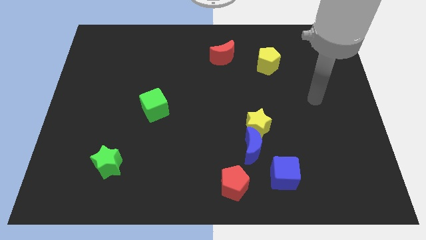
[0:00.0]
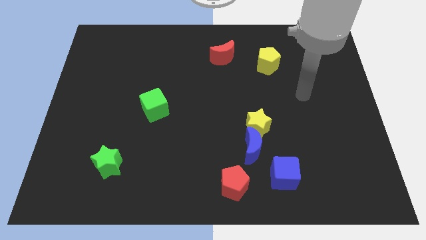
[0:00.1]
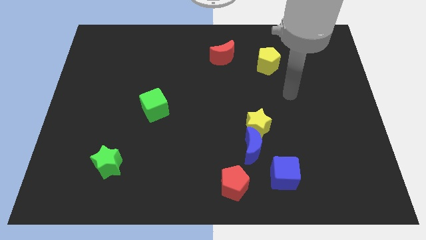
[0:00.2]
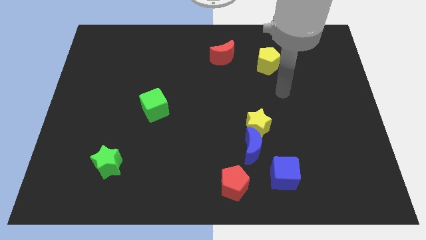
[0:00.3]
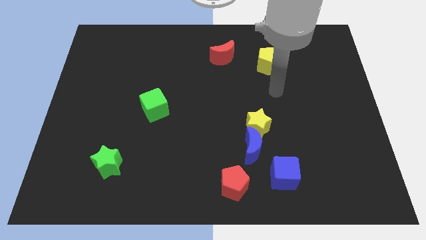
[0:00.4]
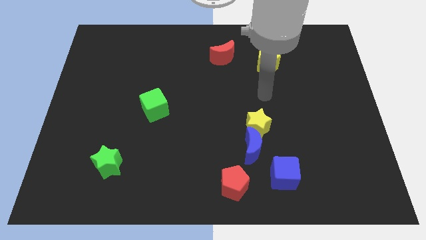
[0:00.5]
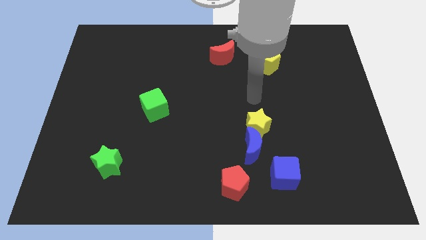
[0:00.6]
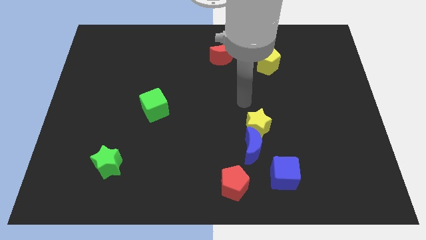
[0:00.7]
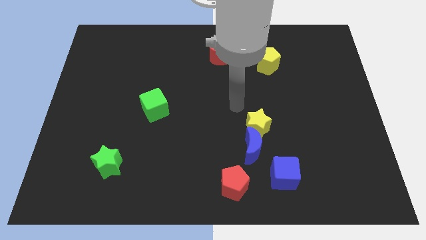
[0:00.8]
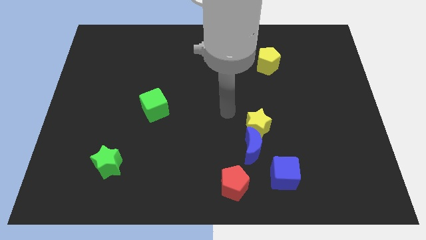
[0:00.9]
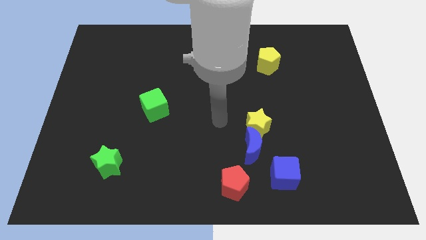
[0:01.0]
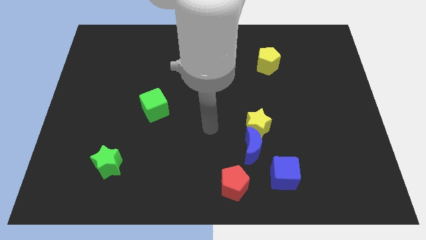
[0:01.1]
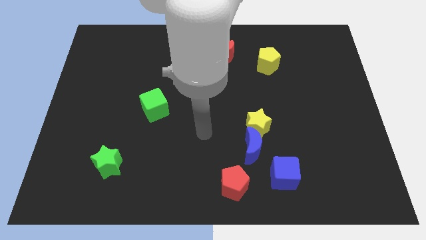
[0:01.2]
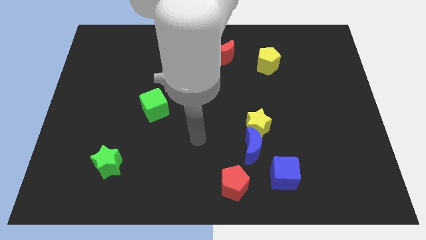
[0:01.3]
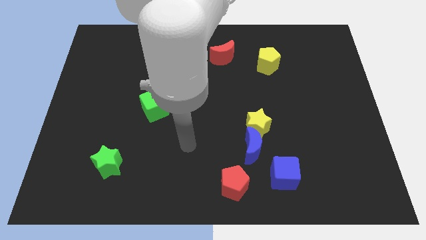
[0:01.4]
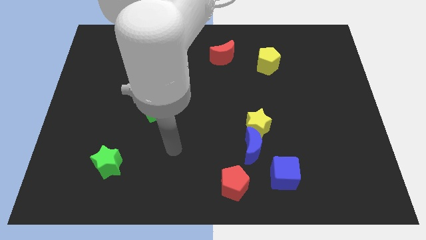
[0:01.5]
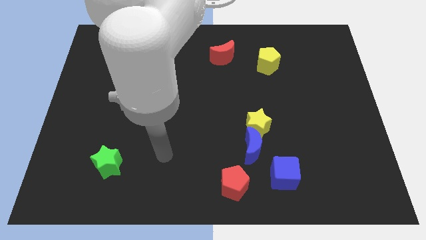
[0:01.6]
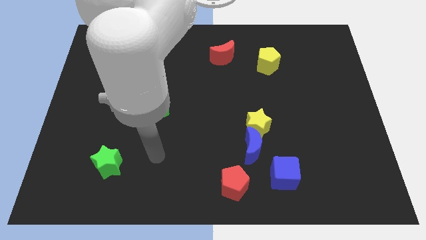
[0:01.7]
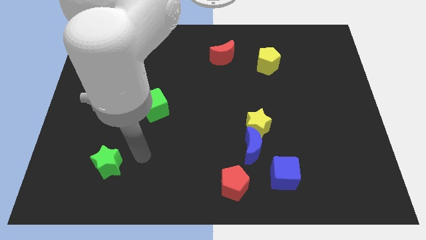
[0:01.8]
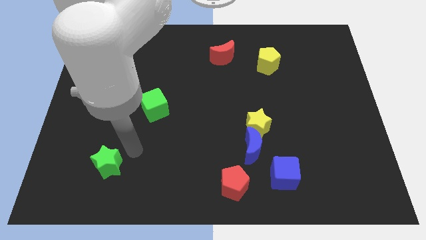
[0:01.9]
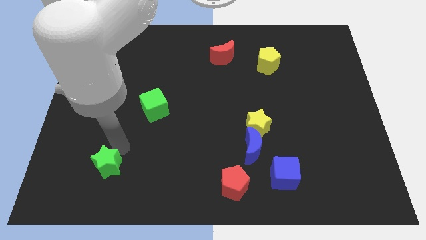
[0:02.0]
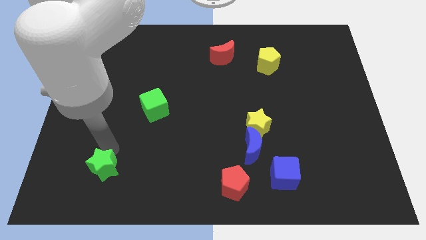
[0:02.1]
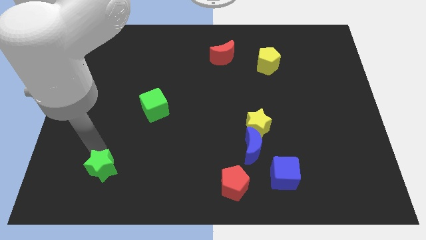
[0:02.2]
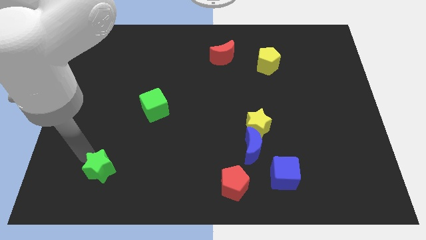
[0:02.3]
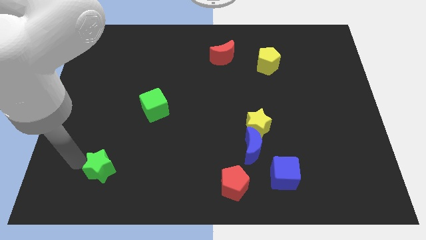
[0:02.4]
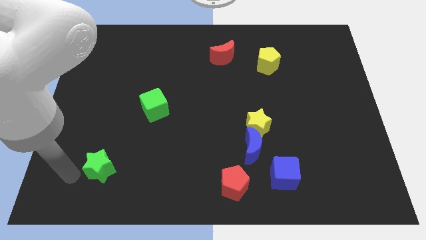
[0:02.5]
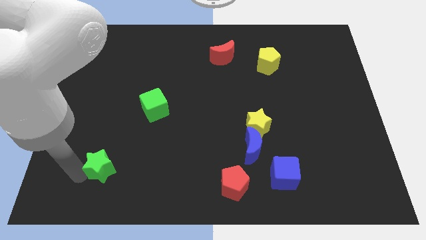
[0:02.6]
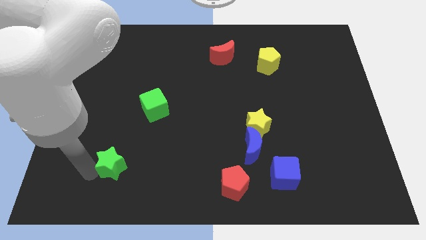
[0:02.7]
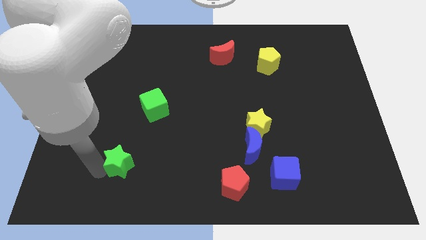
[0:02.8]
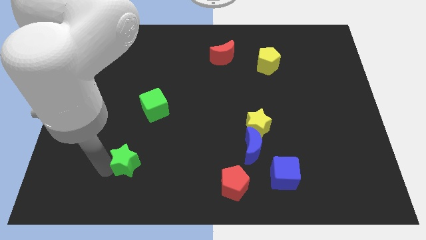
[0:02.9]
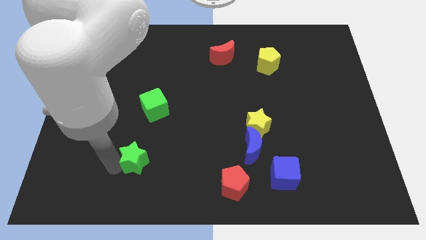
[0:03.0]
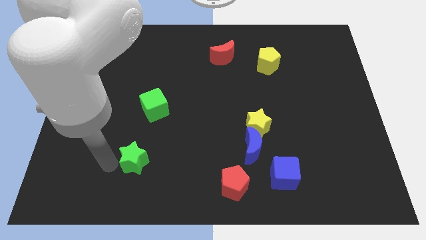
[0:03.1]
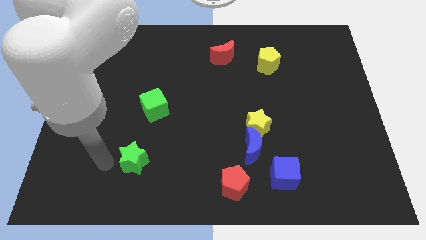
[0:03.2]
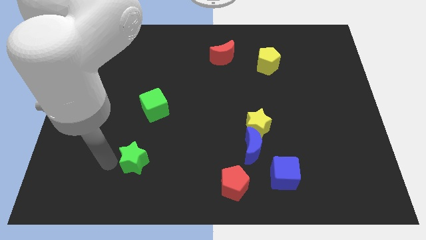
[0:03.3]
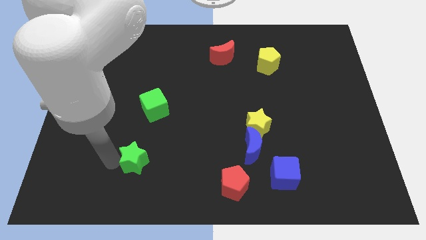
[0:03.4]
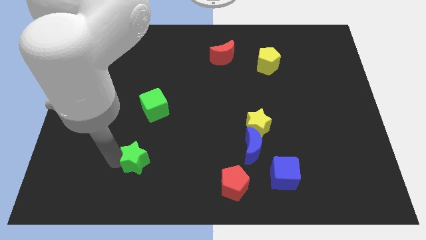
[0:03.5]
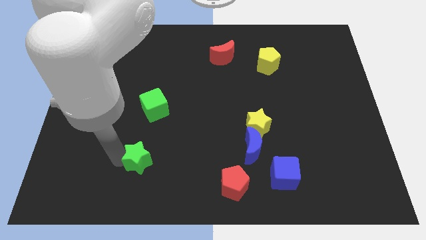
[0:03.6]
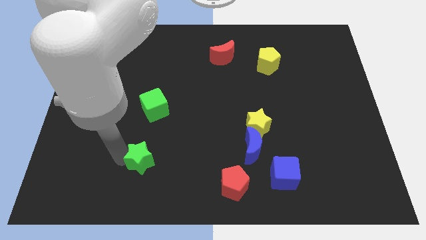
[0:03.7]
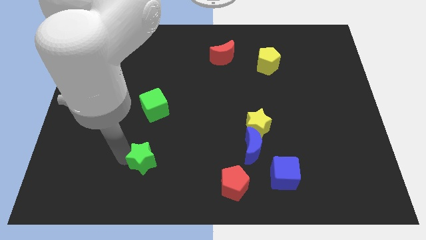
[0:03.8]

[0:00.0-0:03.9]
push the green star right a little bit

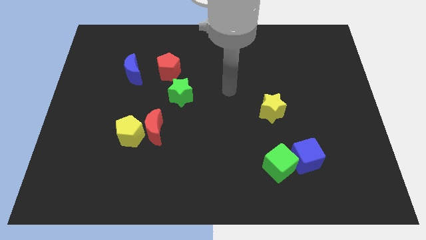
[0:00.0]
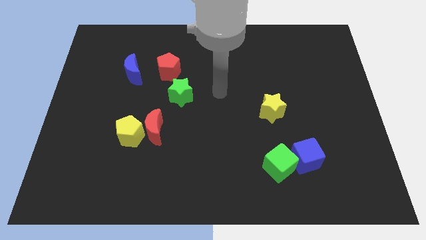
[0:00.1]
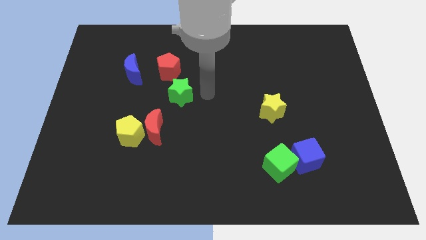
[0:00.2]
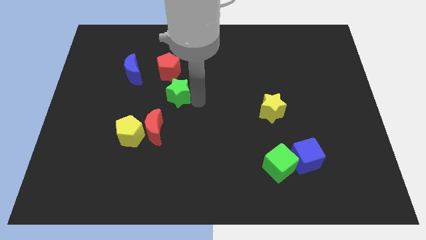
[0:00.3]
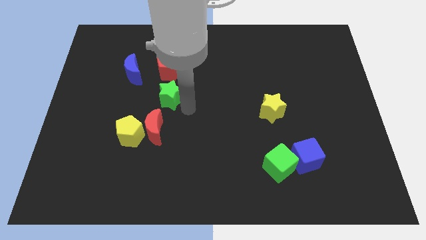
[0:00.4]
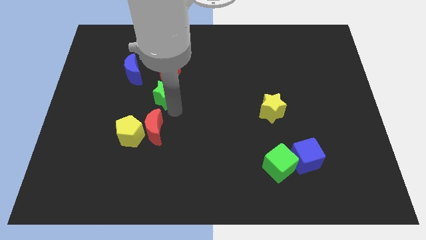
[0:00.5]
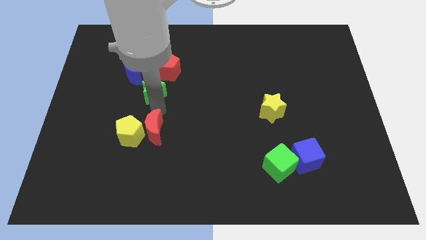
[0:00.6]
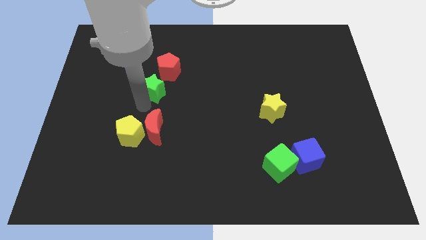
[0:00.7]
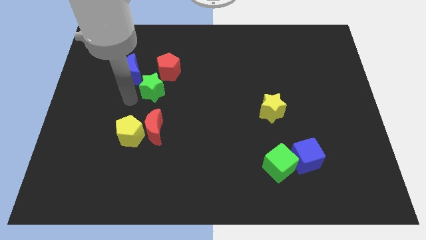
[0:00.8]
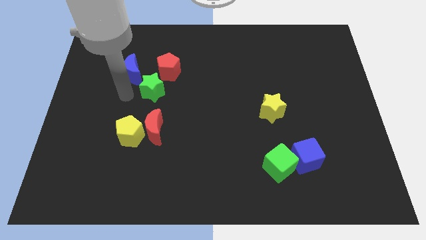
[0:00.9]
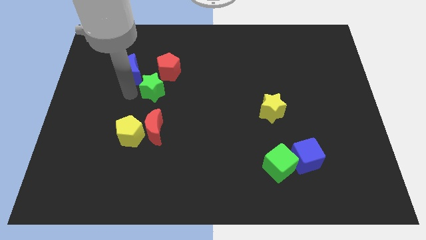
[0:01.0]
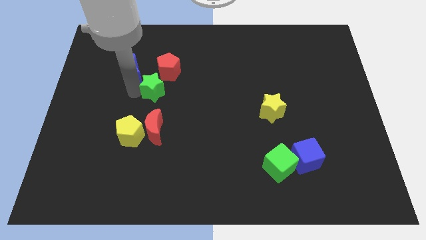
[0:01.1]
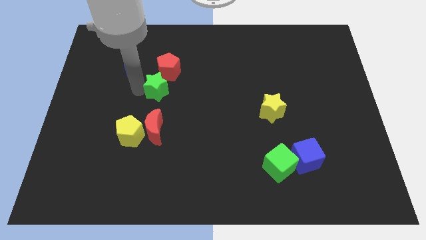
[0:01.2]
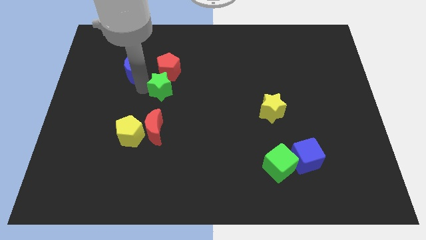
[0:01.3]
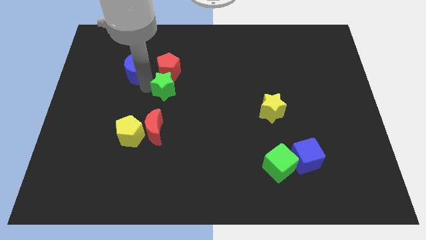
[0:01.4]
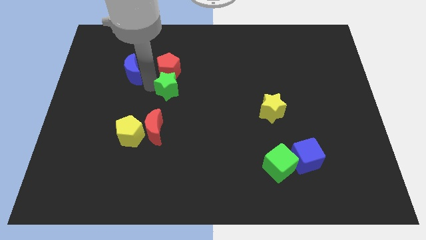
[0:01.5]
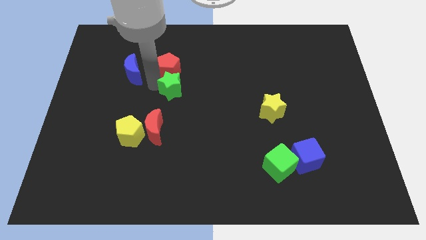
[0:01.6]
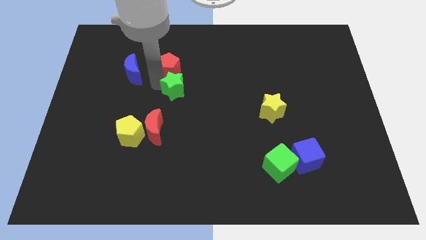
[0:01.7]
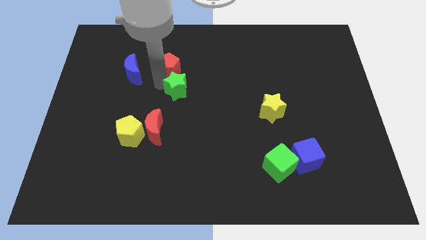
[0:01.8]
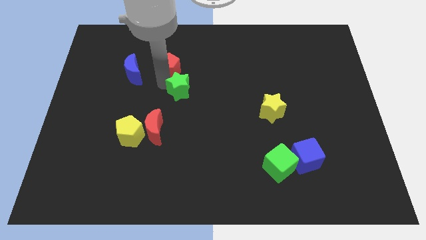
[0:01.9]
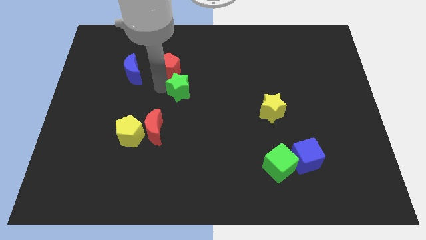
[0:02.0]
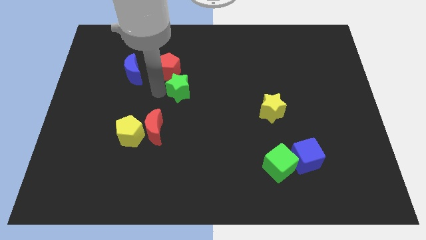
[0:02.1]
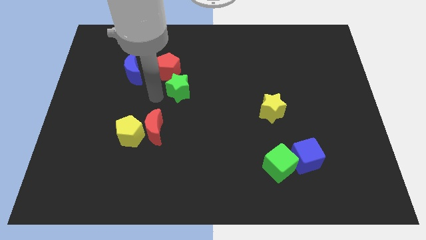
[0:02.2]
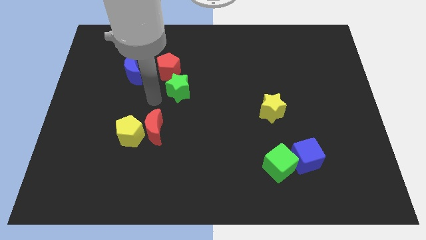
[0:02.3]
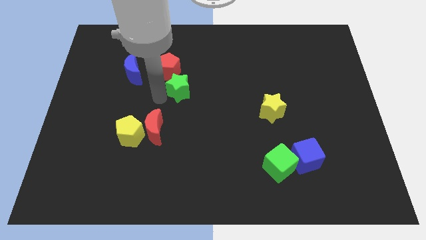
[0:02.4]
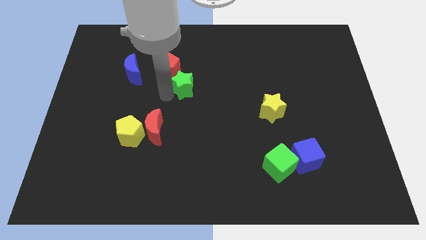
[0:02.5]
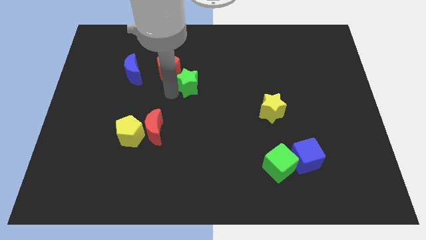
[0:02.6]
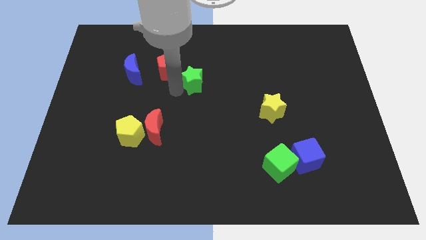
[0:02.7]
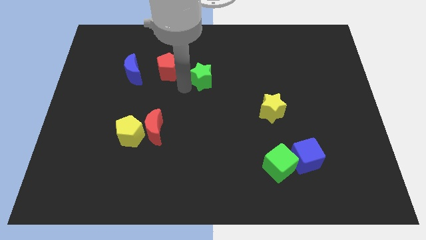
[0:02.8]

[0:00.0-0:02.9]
slightly slide the green star diagonally upwards and right

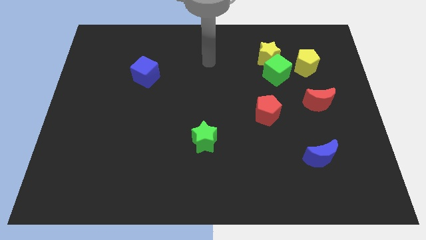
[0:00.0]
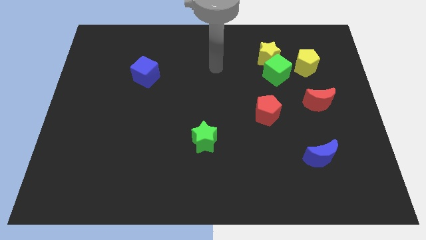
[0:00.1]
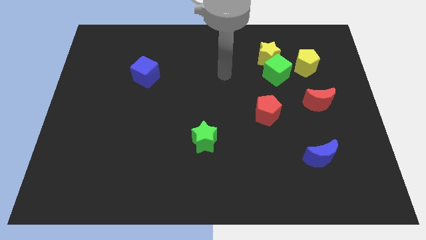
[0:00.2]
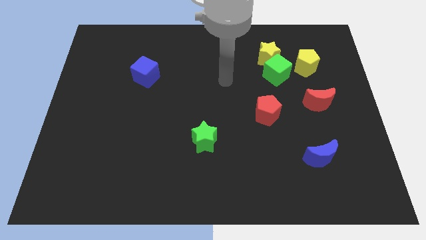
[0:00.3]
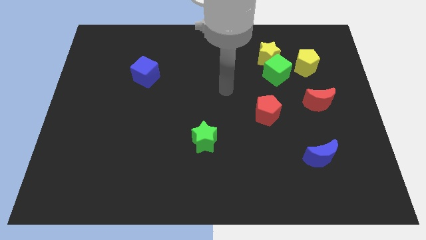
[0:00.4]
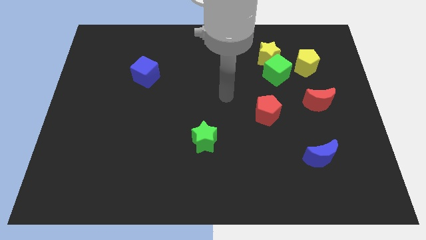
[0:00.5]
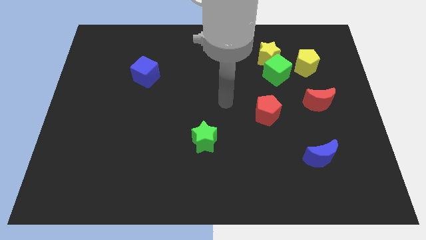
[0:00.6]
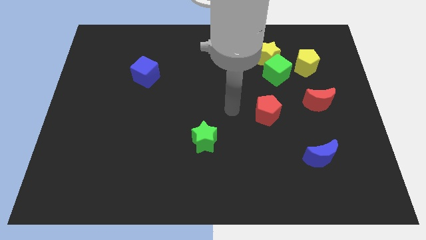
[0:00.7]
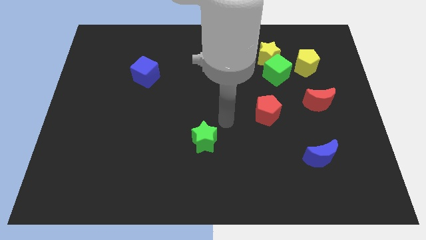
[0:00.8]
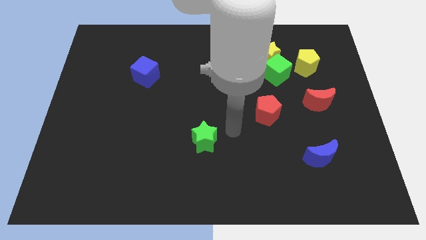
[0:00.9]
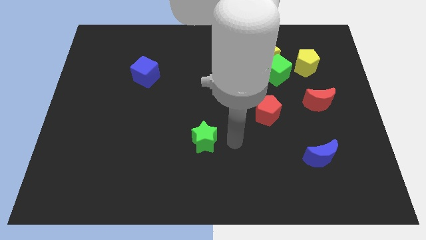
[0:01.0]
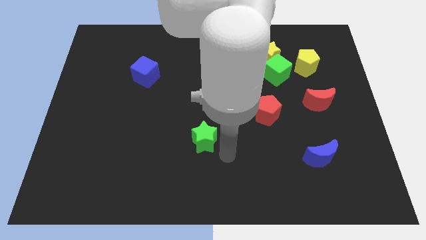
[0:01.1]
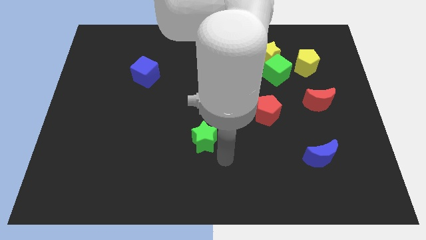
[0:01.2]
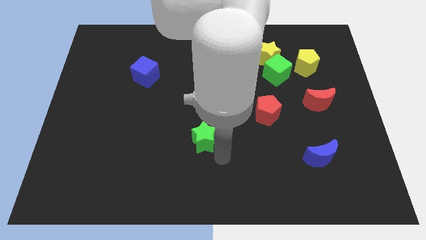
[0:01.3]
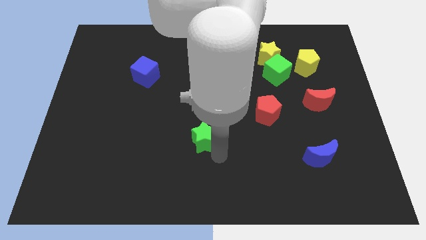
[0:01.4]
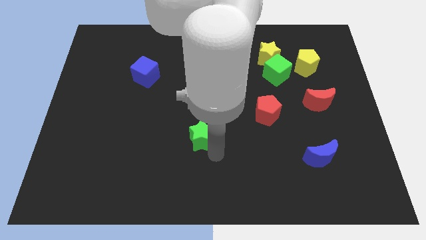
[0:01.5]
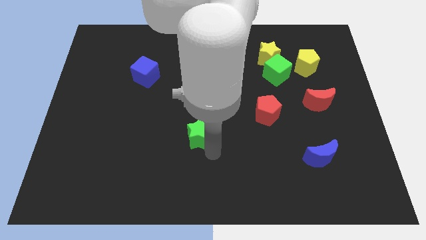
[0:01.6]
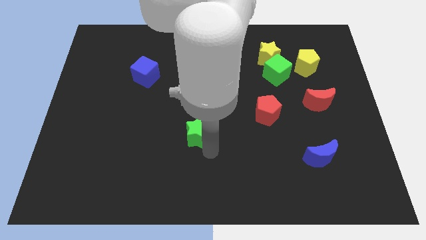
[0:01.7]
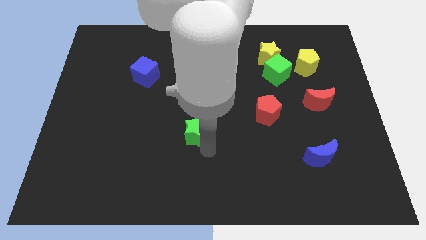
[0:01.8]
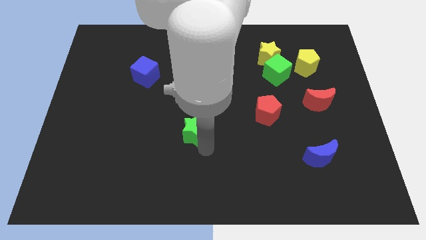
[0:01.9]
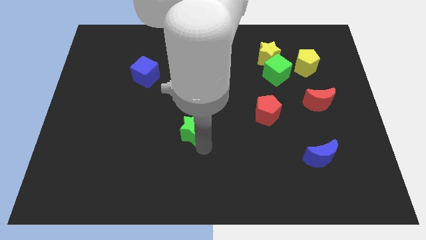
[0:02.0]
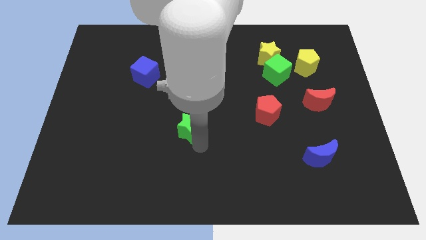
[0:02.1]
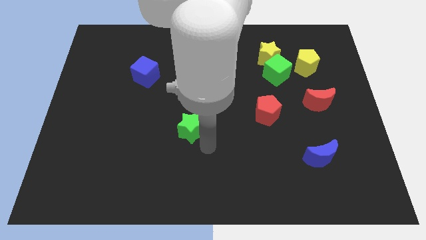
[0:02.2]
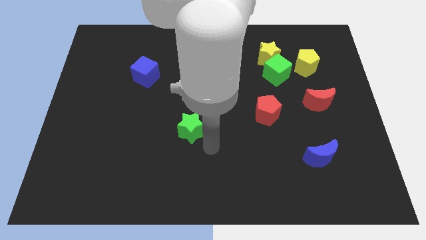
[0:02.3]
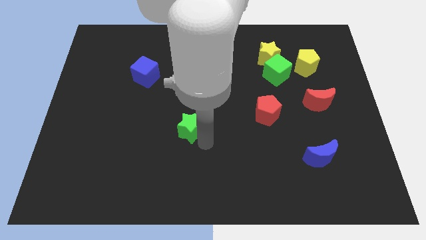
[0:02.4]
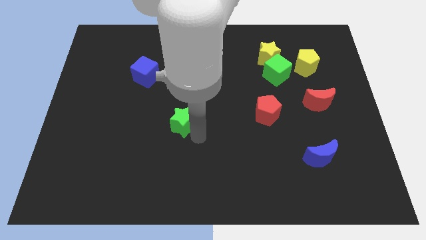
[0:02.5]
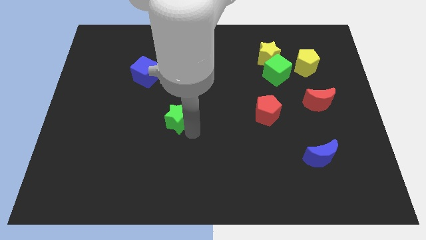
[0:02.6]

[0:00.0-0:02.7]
slightly push the green star up and to the left diagonally
